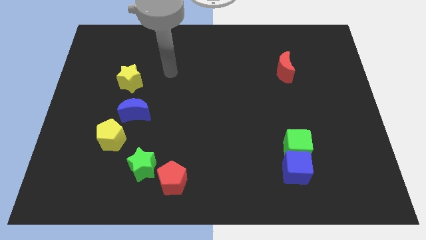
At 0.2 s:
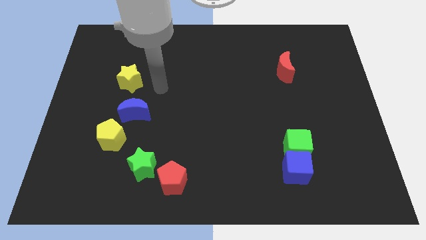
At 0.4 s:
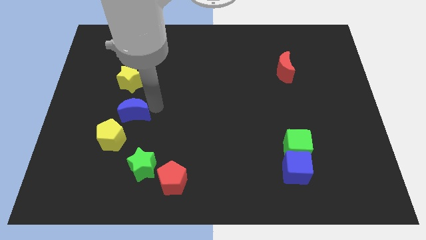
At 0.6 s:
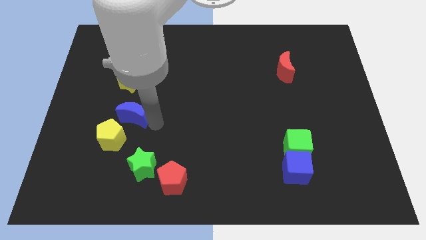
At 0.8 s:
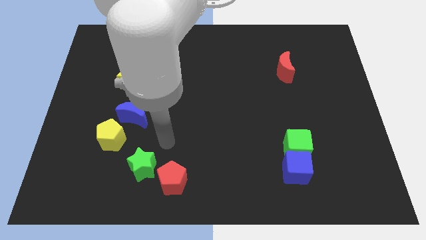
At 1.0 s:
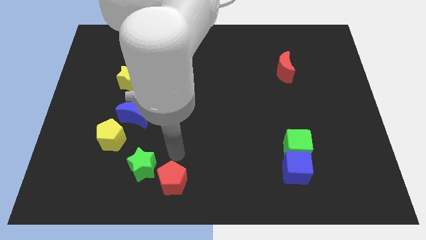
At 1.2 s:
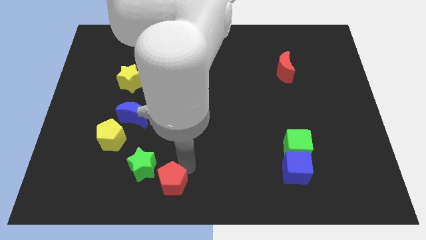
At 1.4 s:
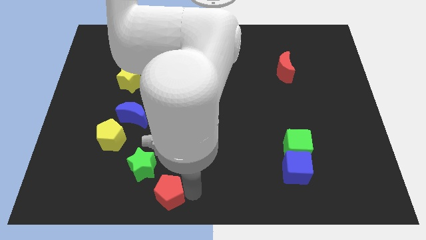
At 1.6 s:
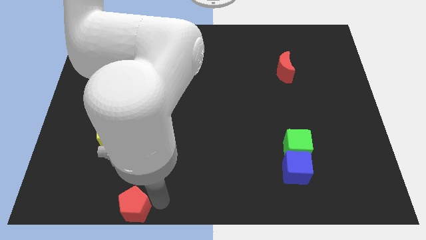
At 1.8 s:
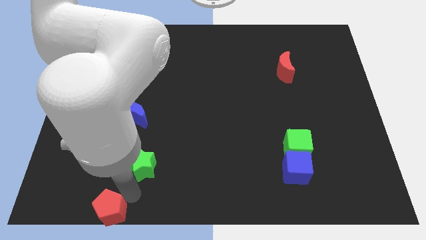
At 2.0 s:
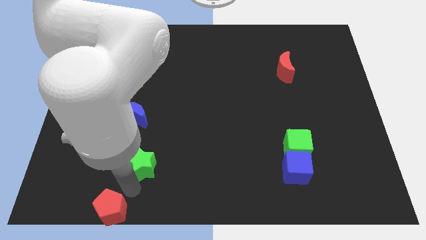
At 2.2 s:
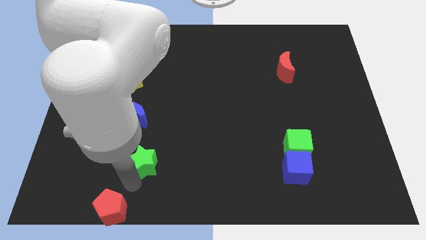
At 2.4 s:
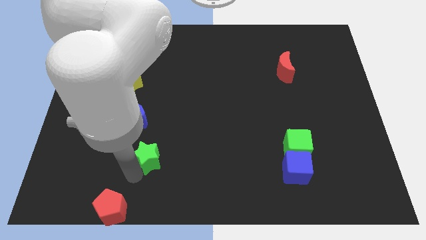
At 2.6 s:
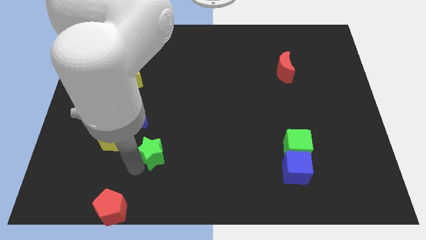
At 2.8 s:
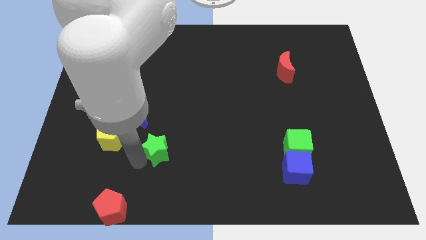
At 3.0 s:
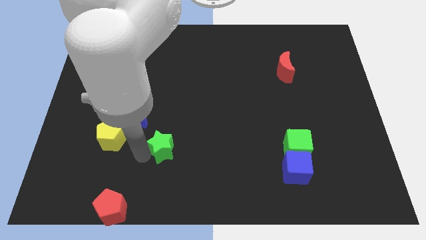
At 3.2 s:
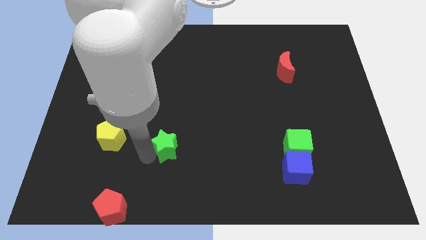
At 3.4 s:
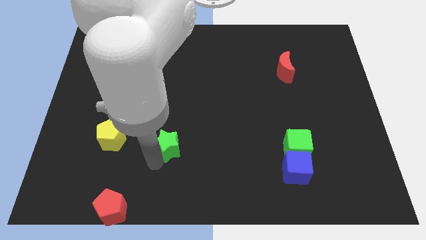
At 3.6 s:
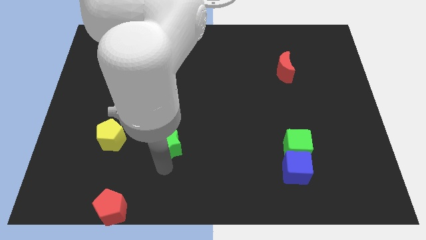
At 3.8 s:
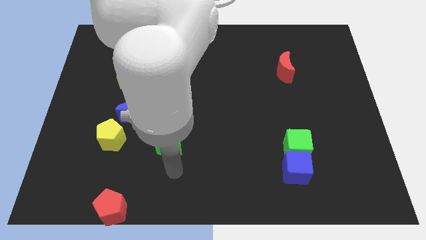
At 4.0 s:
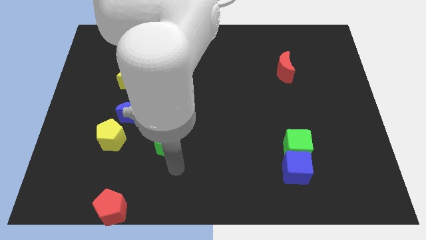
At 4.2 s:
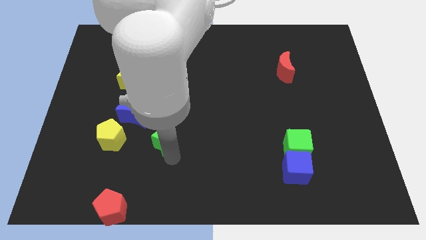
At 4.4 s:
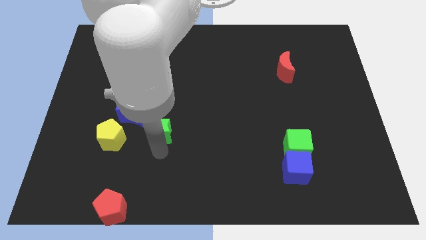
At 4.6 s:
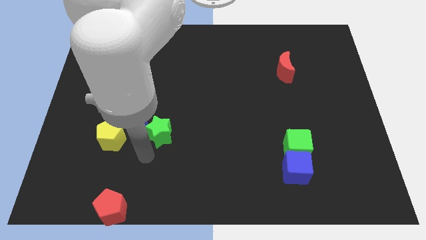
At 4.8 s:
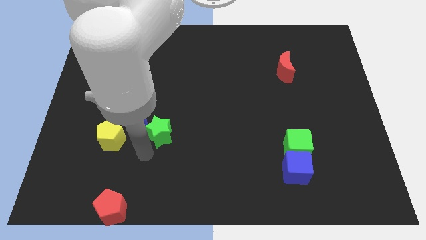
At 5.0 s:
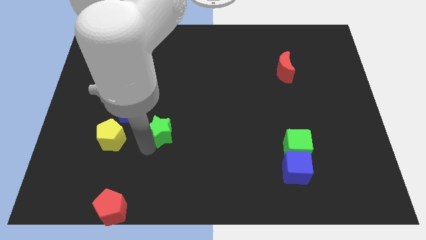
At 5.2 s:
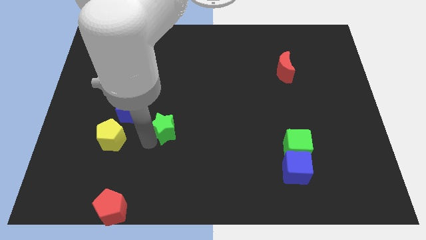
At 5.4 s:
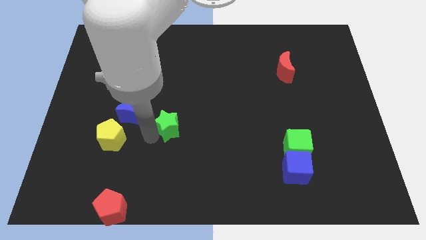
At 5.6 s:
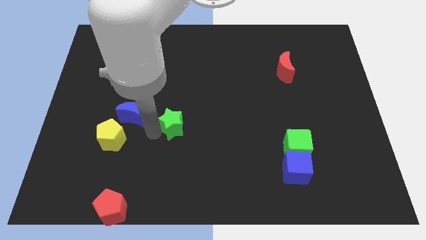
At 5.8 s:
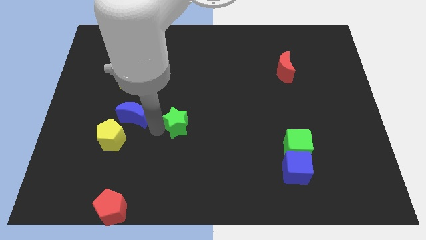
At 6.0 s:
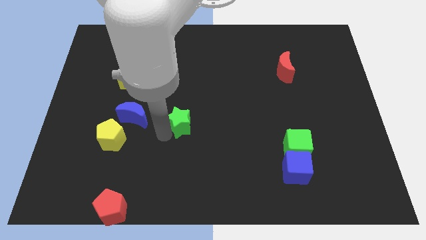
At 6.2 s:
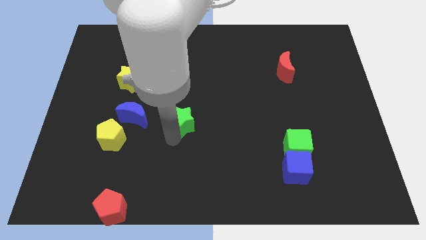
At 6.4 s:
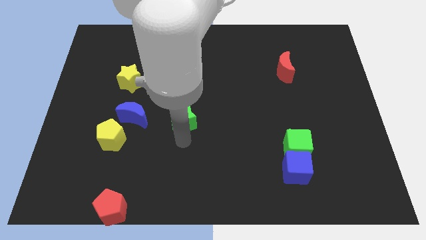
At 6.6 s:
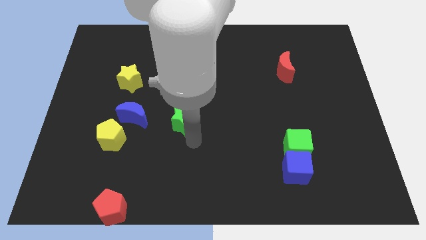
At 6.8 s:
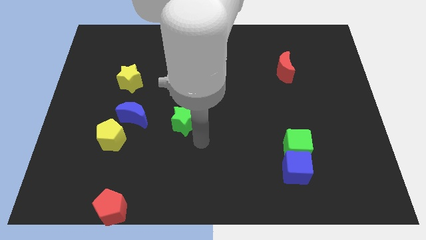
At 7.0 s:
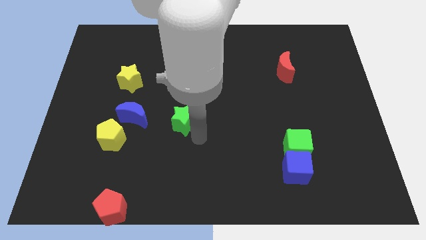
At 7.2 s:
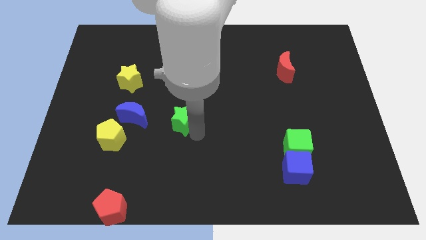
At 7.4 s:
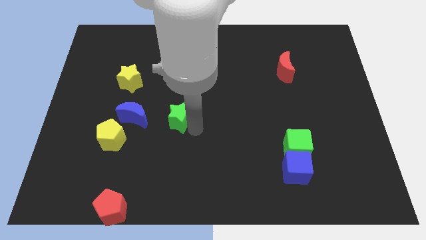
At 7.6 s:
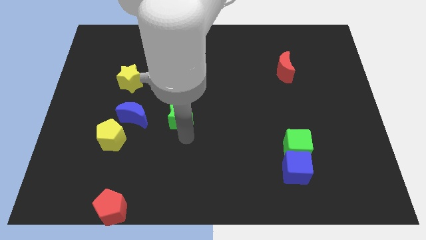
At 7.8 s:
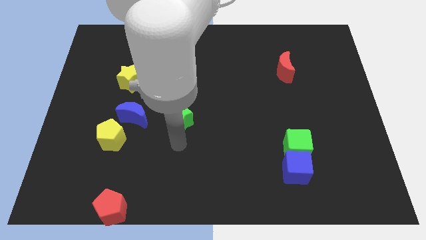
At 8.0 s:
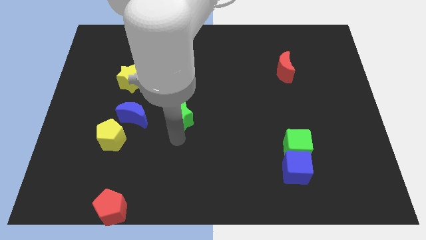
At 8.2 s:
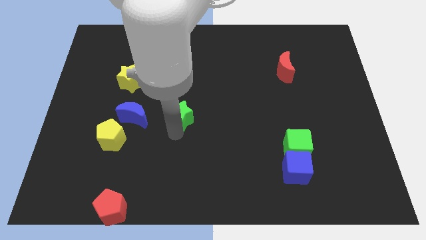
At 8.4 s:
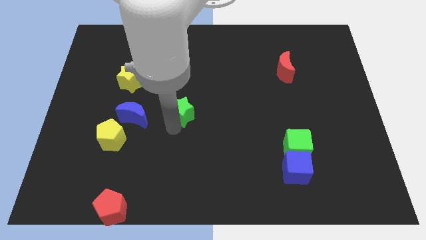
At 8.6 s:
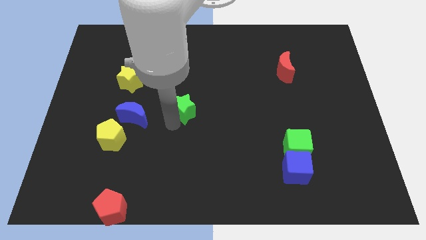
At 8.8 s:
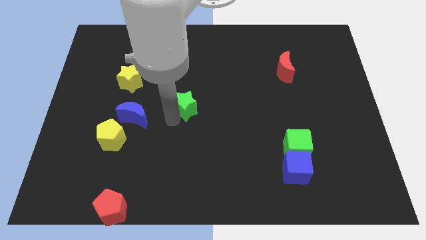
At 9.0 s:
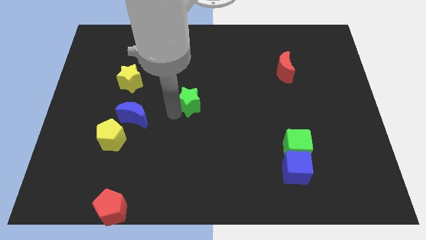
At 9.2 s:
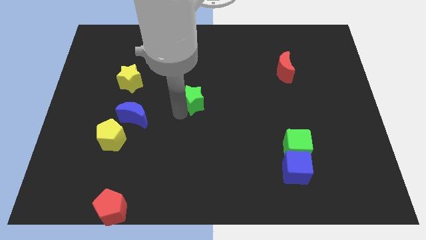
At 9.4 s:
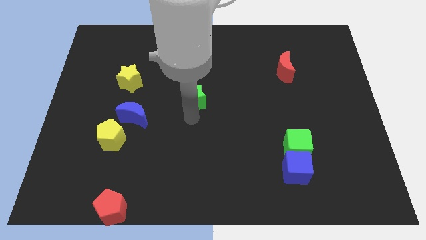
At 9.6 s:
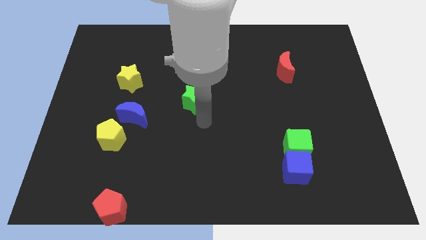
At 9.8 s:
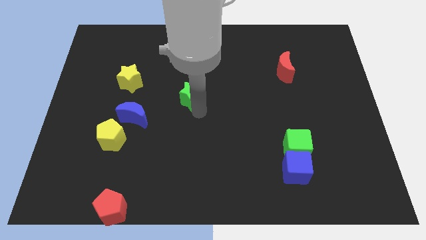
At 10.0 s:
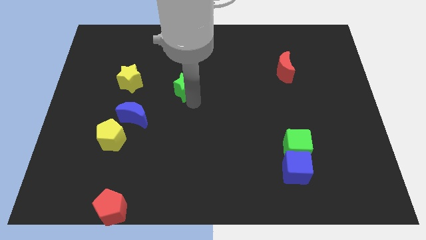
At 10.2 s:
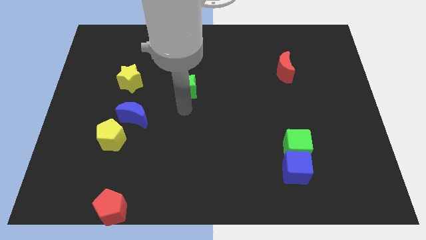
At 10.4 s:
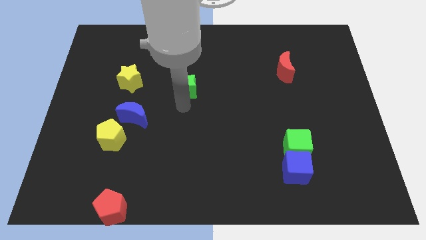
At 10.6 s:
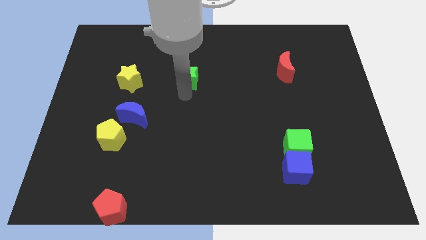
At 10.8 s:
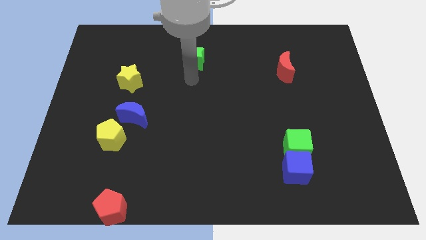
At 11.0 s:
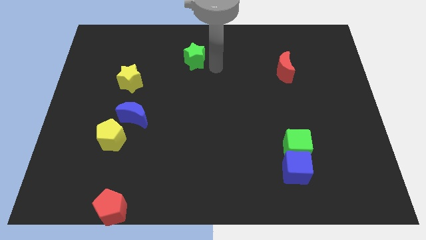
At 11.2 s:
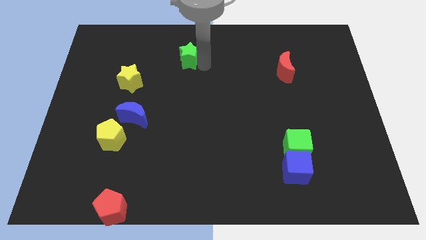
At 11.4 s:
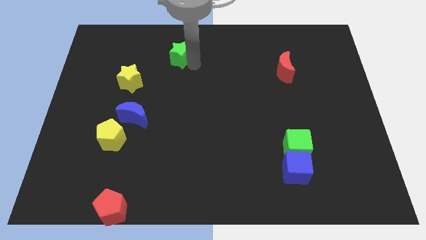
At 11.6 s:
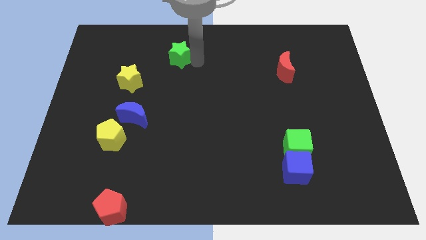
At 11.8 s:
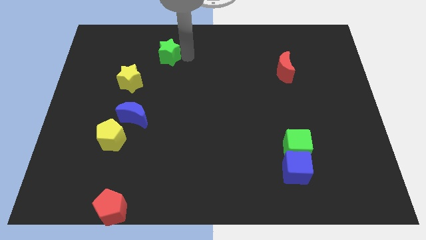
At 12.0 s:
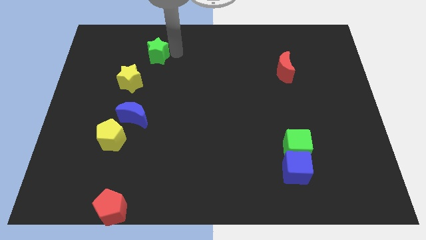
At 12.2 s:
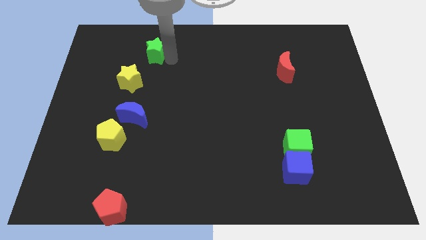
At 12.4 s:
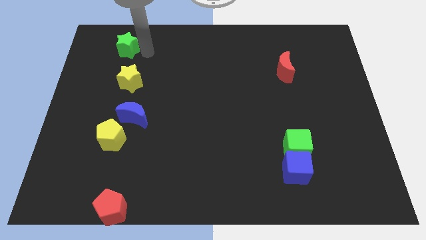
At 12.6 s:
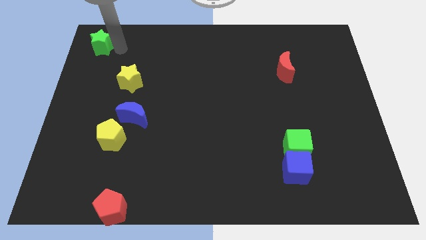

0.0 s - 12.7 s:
put the green star to the upper left corner
